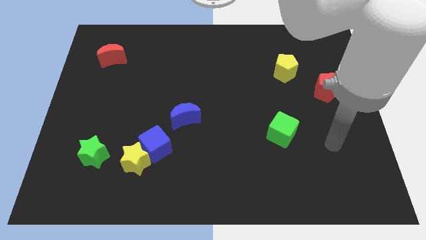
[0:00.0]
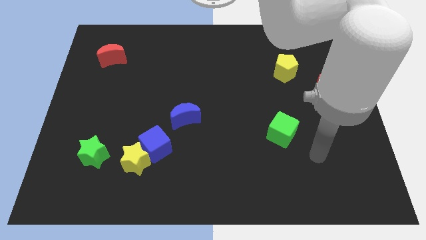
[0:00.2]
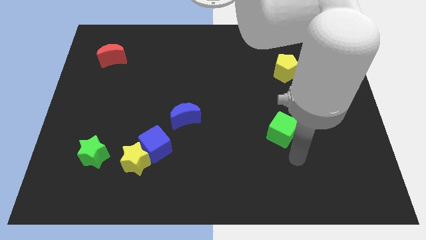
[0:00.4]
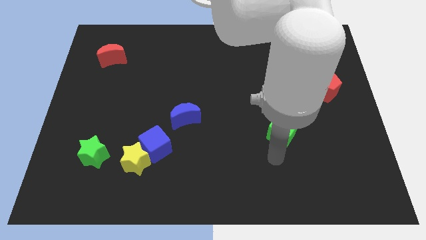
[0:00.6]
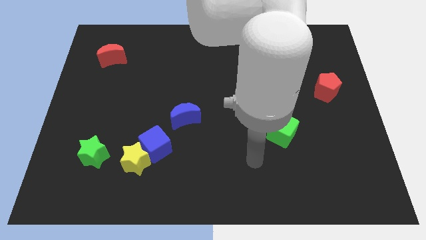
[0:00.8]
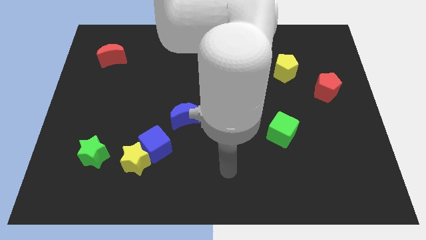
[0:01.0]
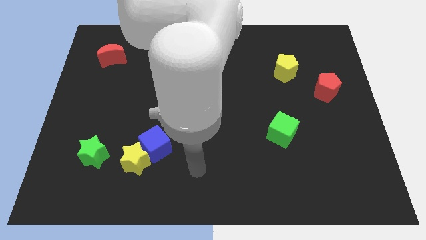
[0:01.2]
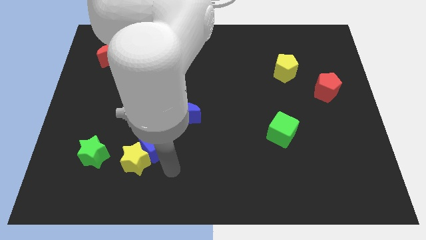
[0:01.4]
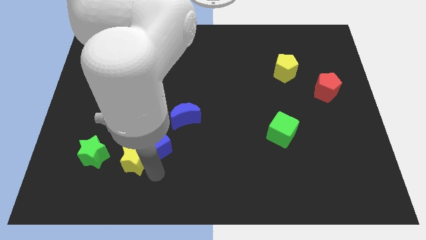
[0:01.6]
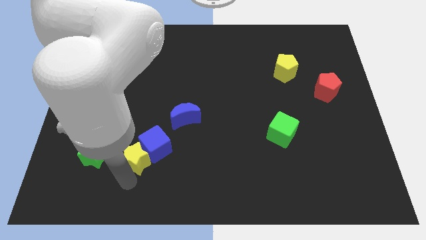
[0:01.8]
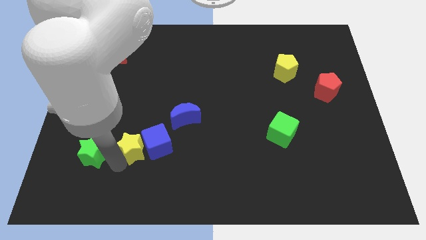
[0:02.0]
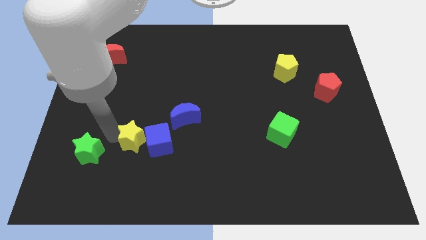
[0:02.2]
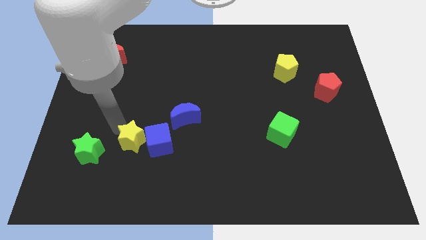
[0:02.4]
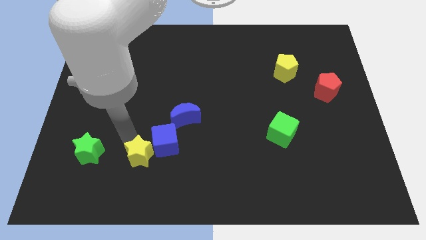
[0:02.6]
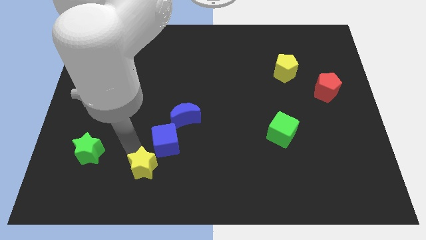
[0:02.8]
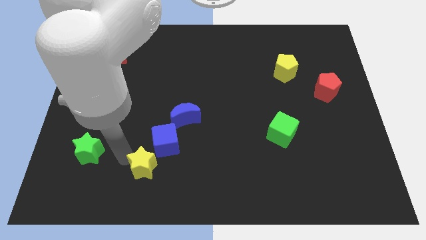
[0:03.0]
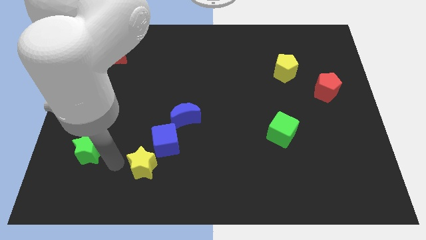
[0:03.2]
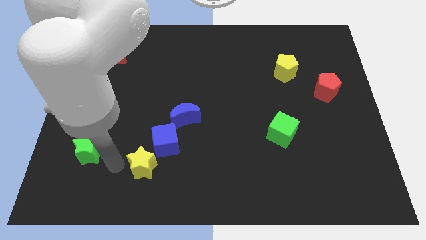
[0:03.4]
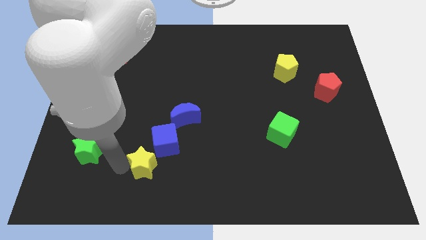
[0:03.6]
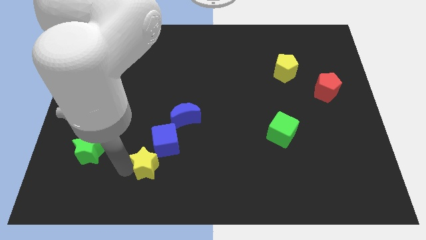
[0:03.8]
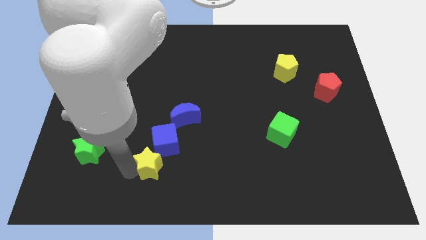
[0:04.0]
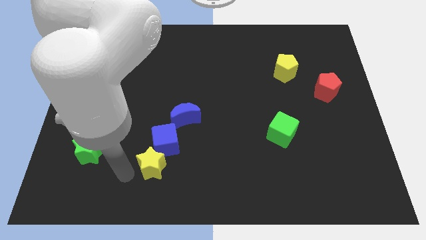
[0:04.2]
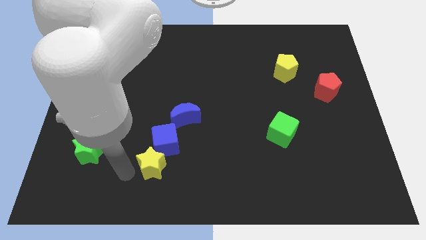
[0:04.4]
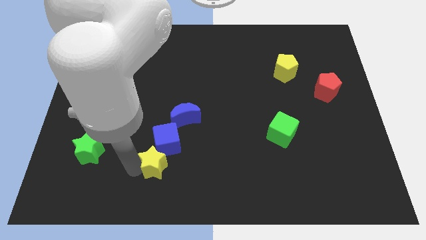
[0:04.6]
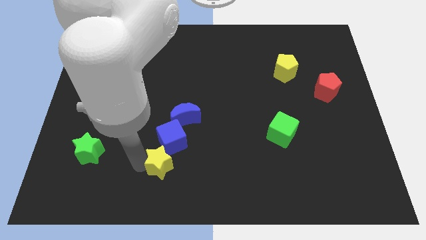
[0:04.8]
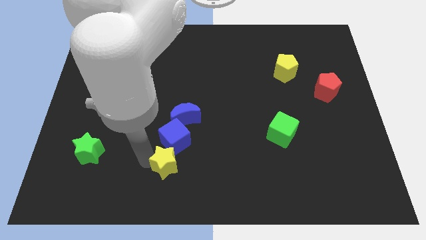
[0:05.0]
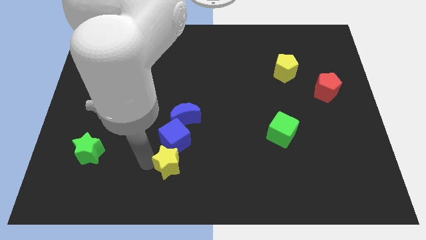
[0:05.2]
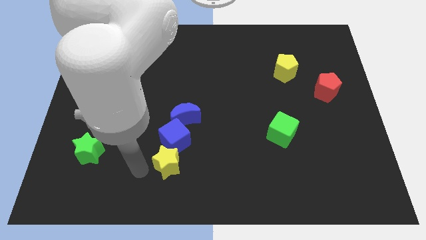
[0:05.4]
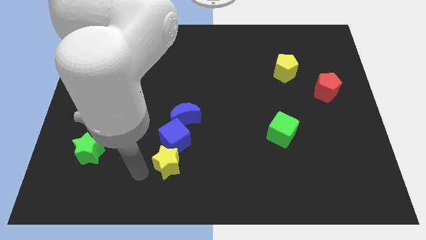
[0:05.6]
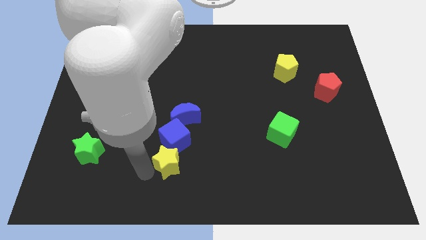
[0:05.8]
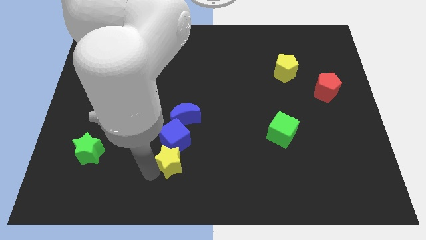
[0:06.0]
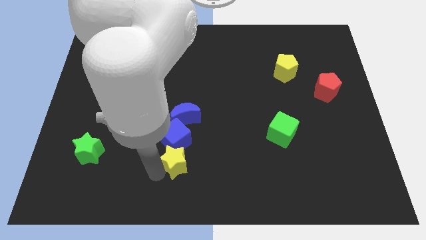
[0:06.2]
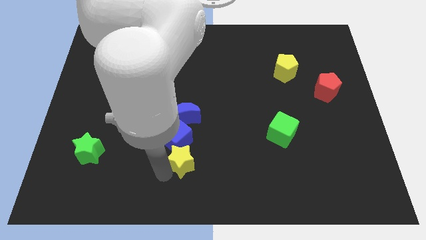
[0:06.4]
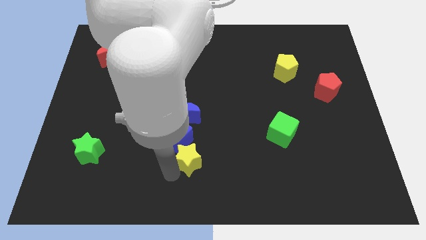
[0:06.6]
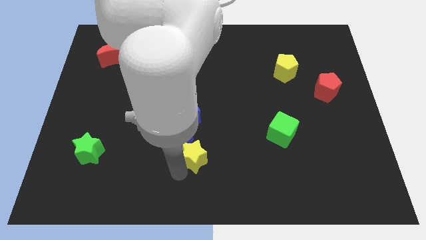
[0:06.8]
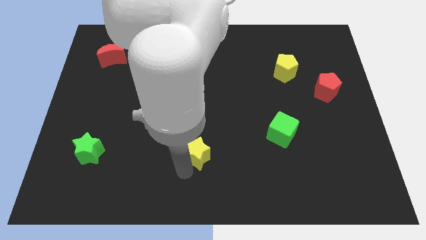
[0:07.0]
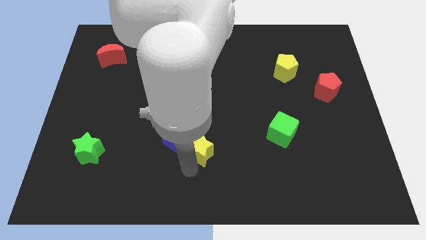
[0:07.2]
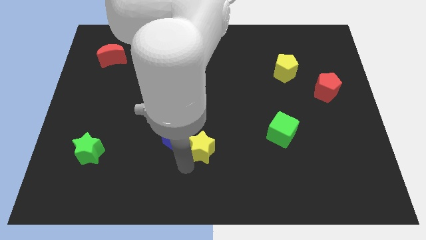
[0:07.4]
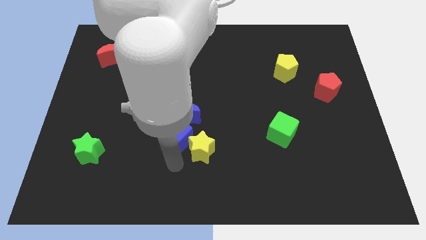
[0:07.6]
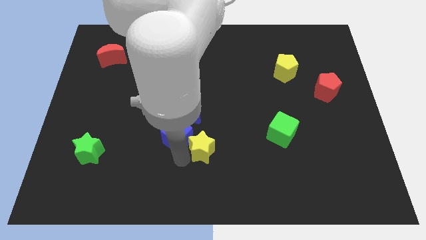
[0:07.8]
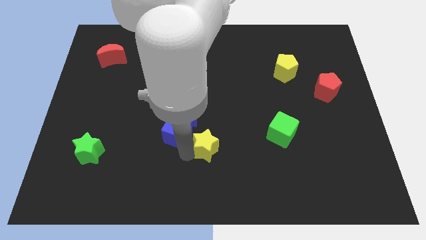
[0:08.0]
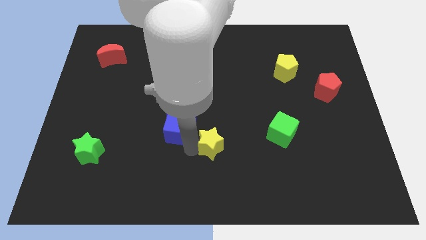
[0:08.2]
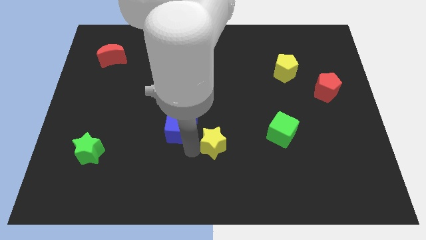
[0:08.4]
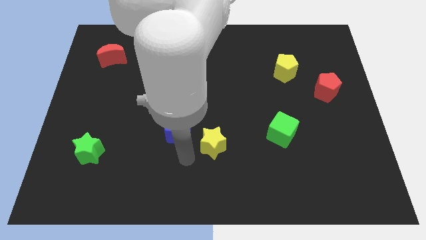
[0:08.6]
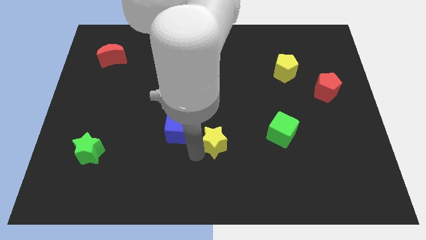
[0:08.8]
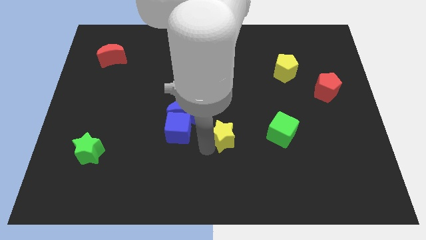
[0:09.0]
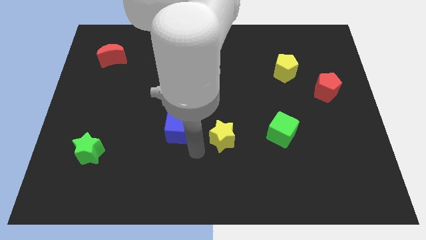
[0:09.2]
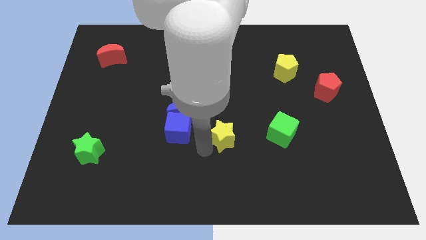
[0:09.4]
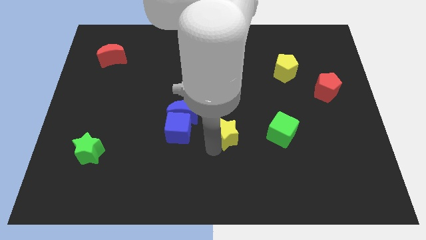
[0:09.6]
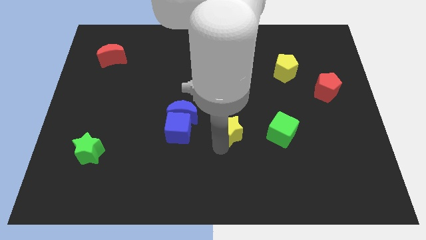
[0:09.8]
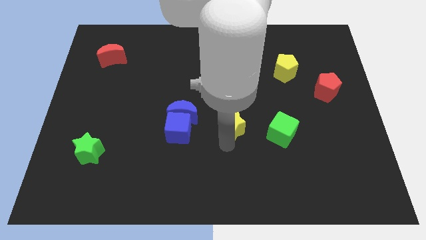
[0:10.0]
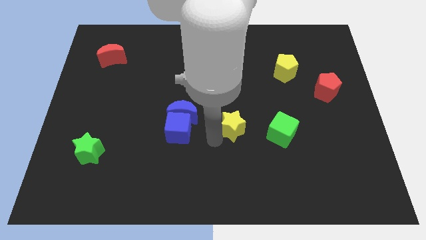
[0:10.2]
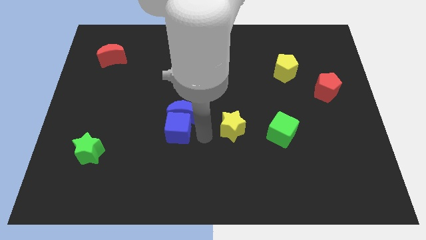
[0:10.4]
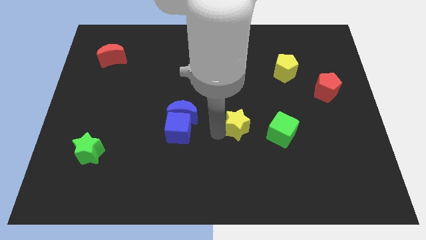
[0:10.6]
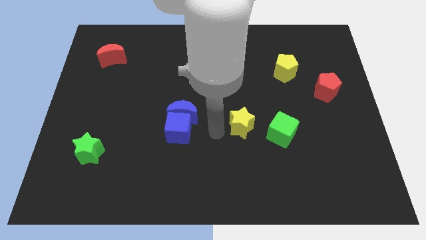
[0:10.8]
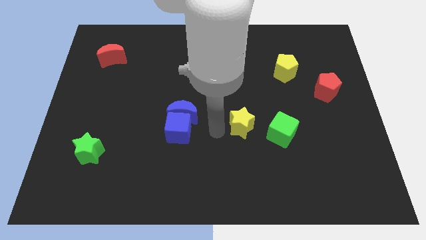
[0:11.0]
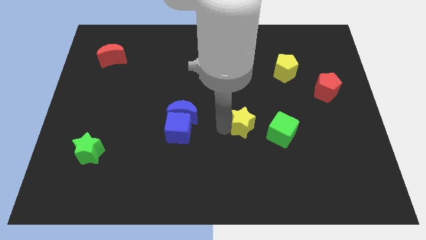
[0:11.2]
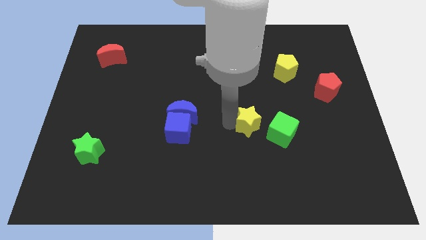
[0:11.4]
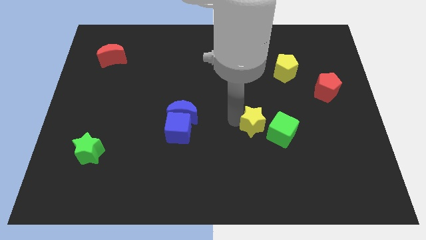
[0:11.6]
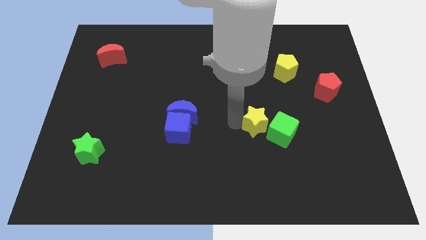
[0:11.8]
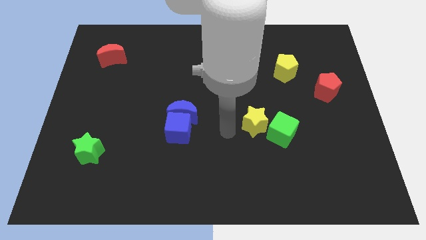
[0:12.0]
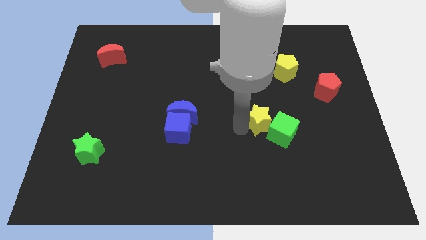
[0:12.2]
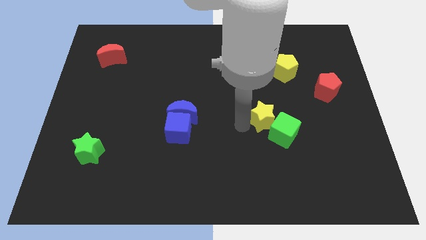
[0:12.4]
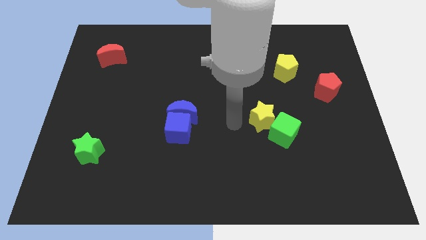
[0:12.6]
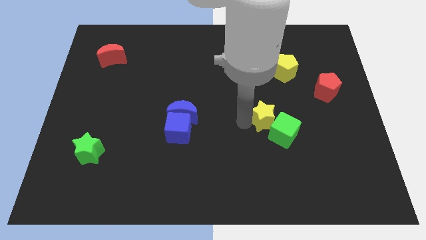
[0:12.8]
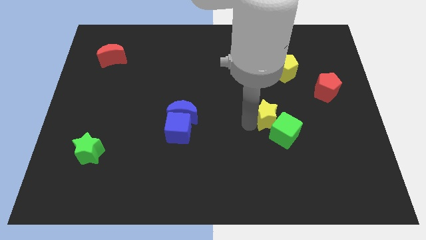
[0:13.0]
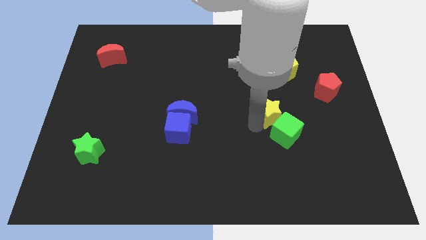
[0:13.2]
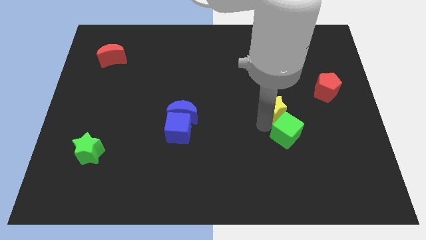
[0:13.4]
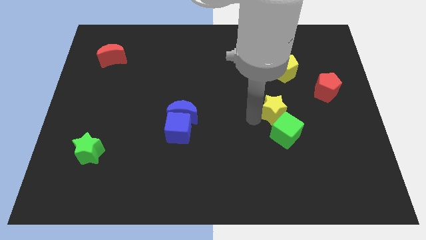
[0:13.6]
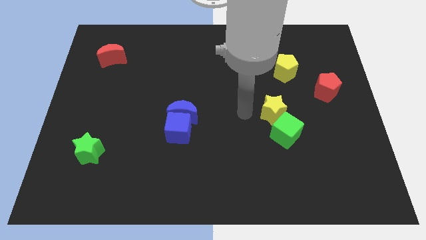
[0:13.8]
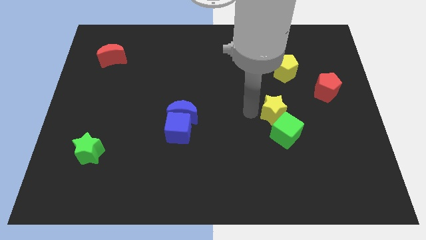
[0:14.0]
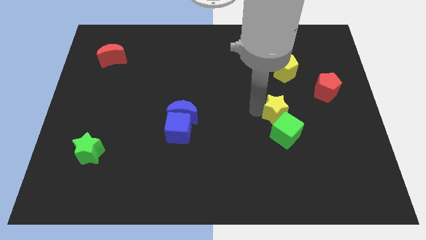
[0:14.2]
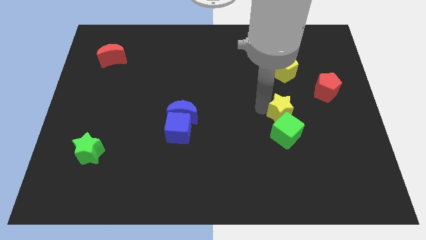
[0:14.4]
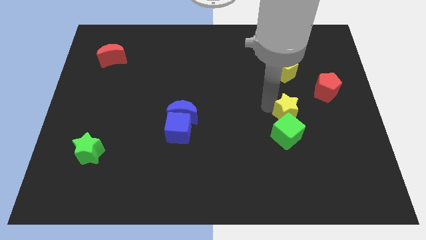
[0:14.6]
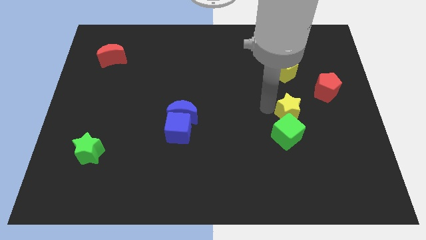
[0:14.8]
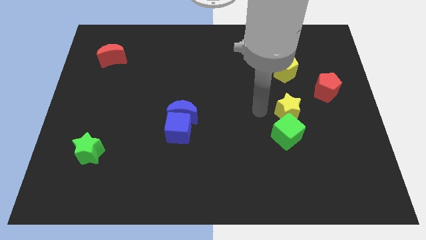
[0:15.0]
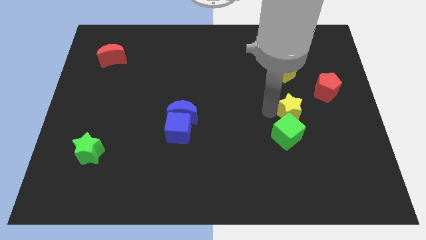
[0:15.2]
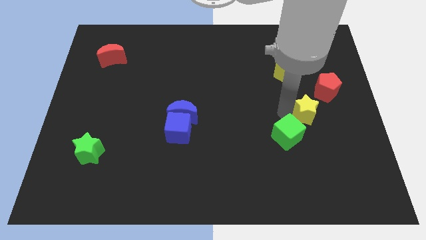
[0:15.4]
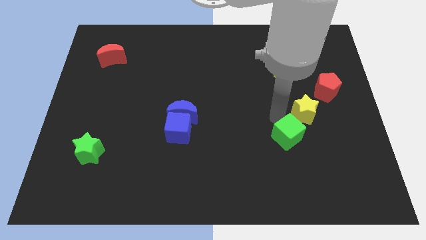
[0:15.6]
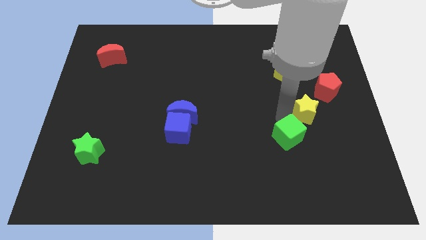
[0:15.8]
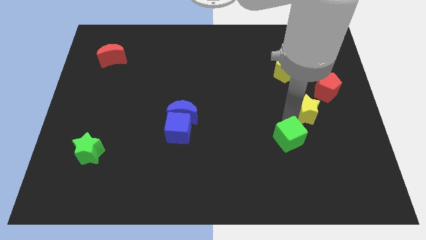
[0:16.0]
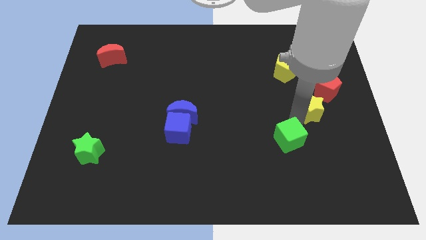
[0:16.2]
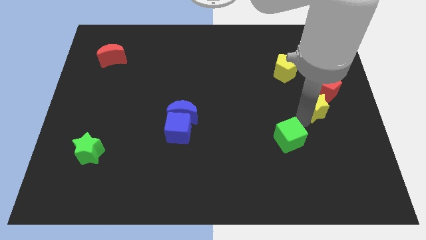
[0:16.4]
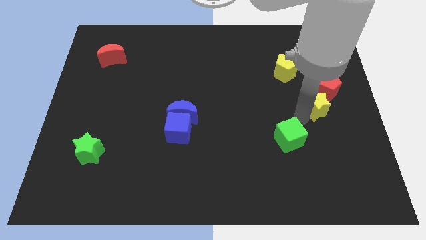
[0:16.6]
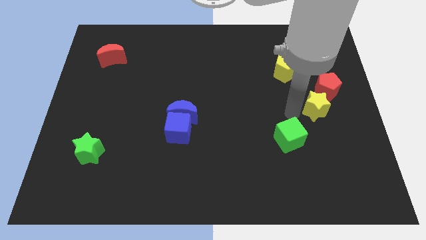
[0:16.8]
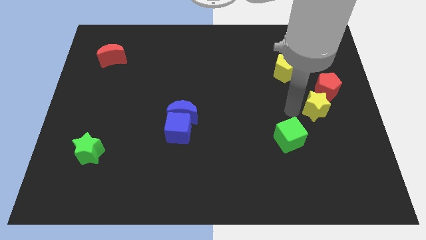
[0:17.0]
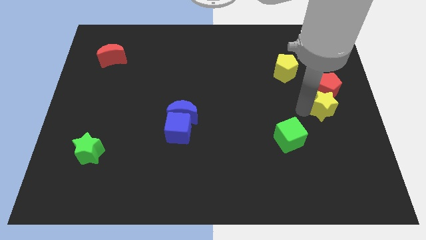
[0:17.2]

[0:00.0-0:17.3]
push the yellow star to the center right
